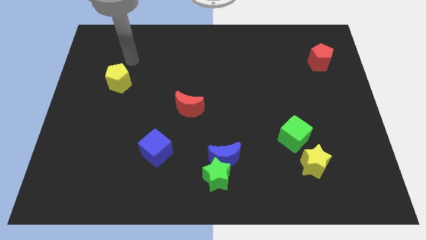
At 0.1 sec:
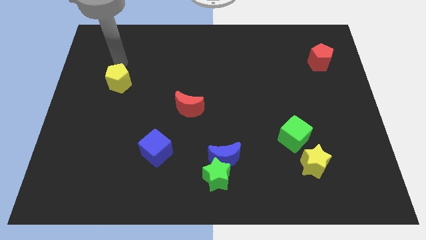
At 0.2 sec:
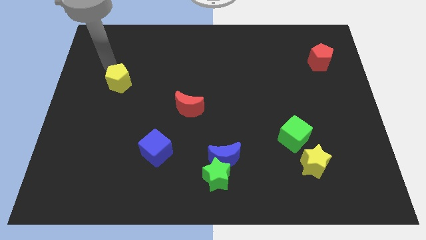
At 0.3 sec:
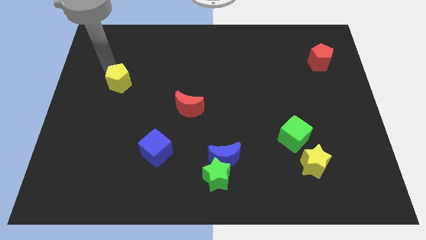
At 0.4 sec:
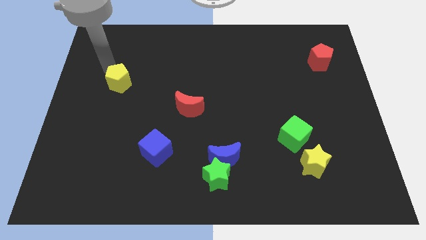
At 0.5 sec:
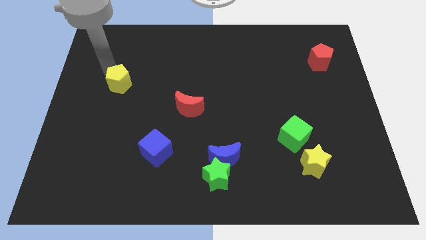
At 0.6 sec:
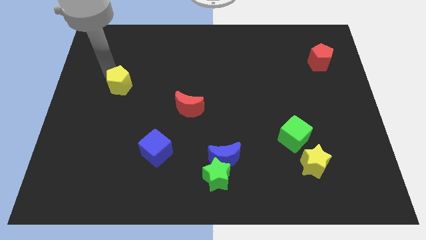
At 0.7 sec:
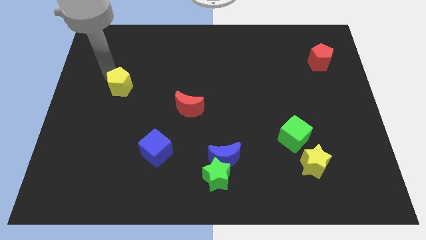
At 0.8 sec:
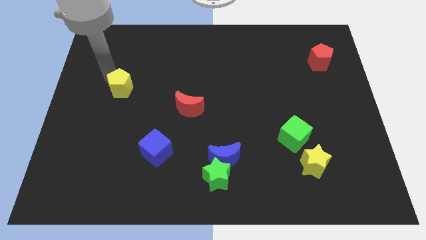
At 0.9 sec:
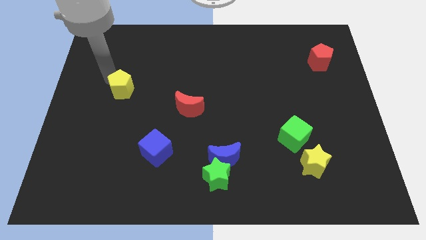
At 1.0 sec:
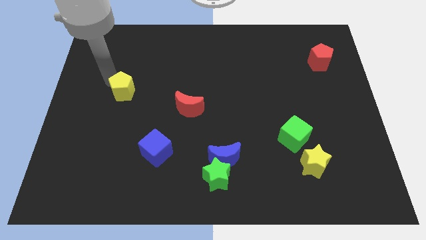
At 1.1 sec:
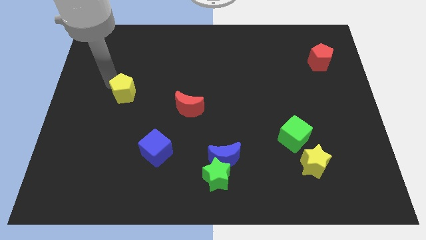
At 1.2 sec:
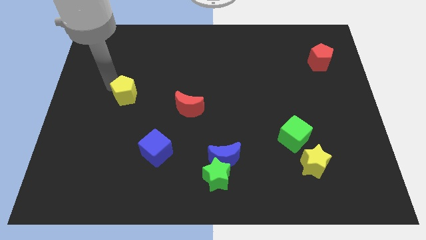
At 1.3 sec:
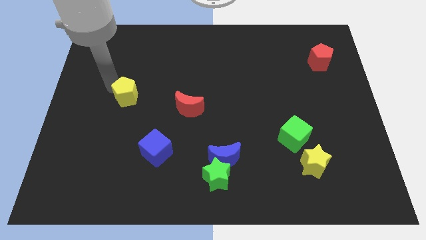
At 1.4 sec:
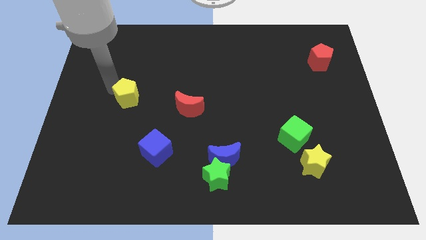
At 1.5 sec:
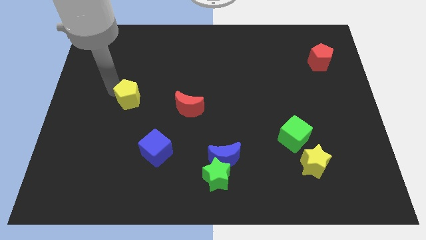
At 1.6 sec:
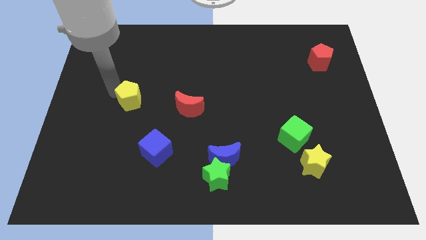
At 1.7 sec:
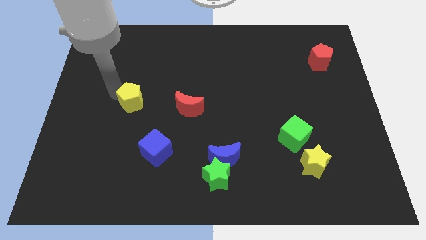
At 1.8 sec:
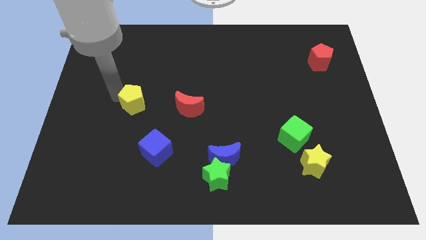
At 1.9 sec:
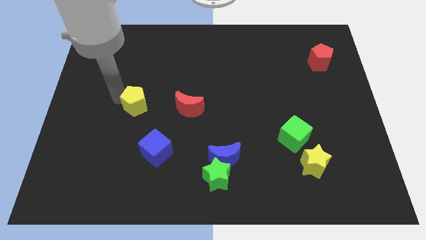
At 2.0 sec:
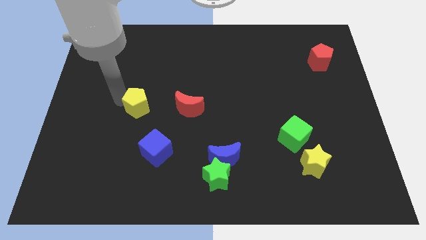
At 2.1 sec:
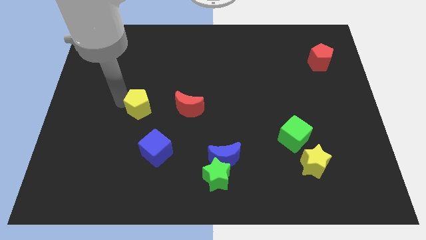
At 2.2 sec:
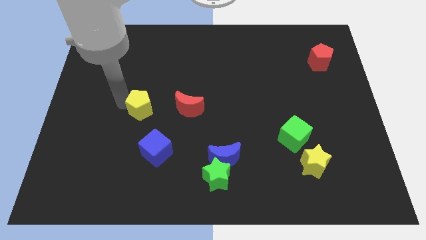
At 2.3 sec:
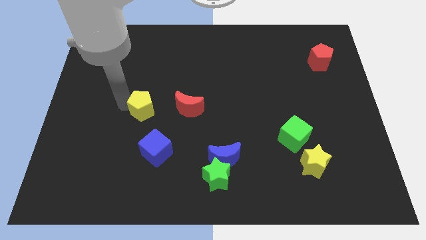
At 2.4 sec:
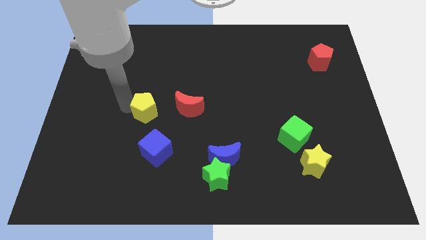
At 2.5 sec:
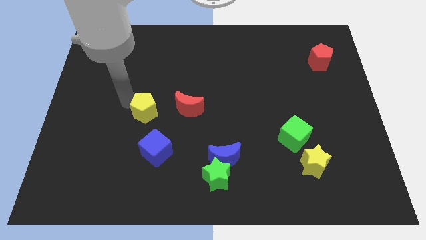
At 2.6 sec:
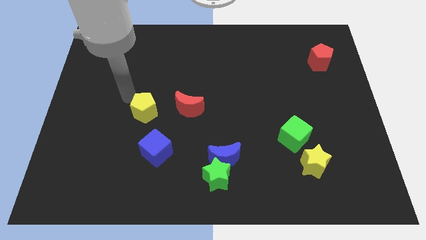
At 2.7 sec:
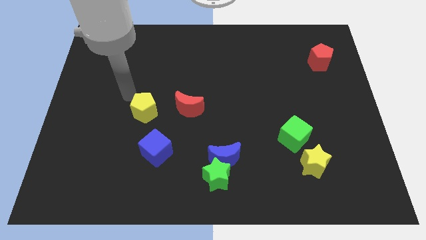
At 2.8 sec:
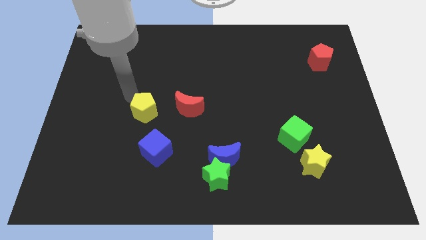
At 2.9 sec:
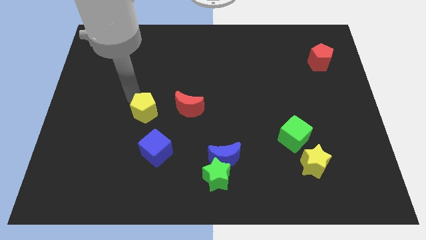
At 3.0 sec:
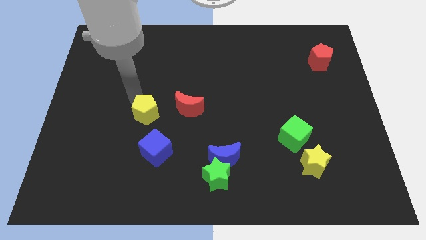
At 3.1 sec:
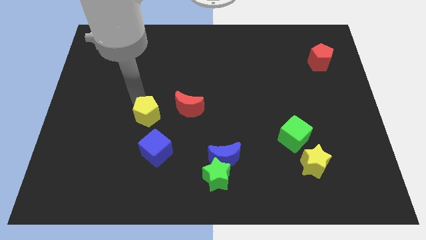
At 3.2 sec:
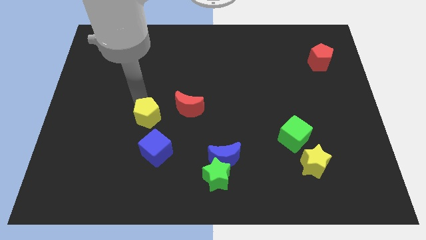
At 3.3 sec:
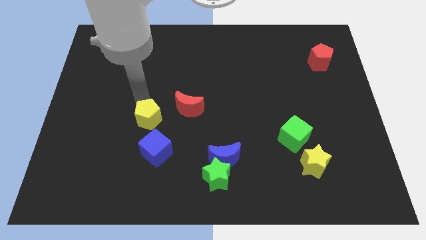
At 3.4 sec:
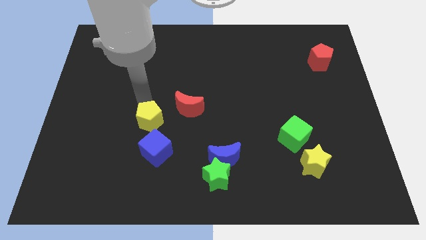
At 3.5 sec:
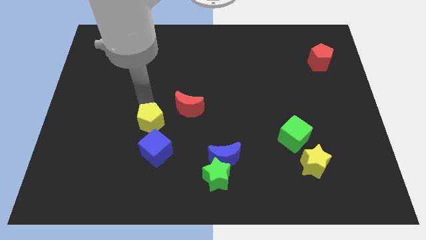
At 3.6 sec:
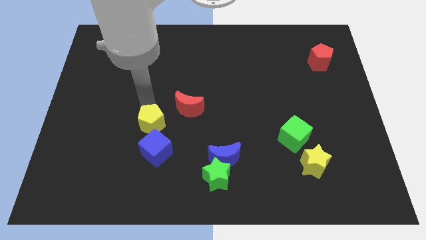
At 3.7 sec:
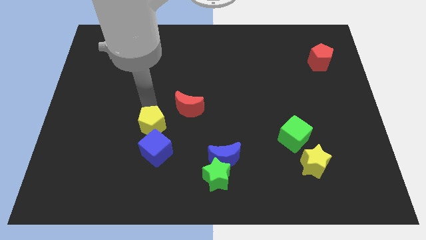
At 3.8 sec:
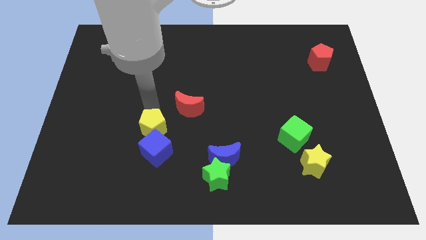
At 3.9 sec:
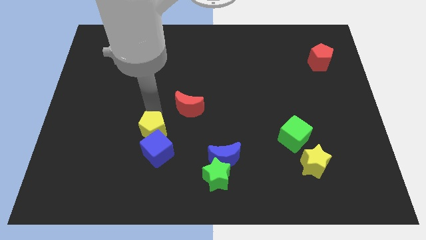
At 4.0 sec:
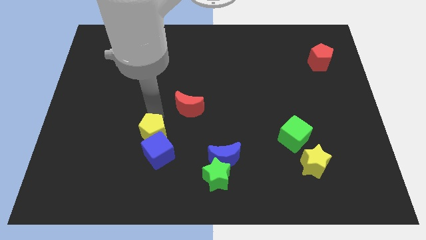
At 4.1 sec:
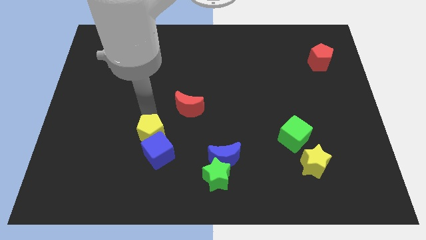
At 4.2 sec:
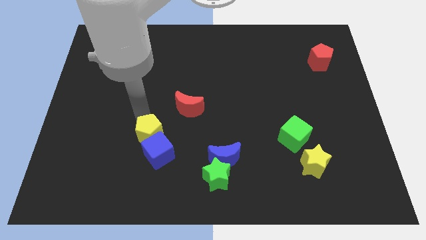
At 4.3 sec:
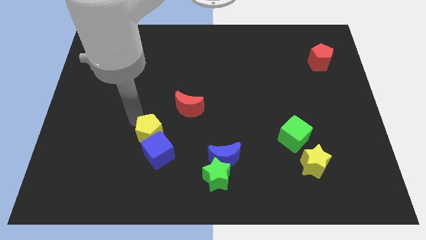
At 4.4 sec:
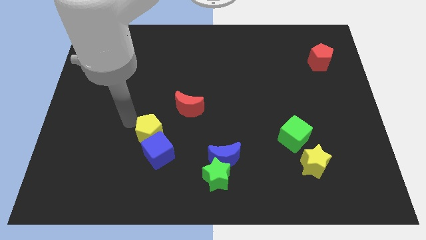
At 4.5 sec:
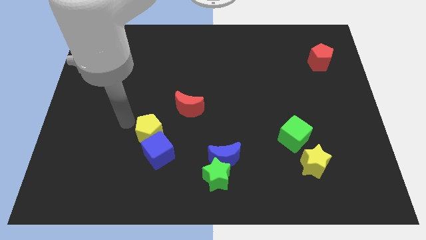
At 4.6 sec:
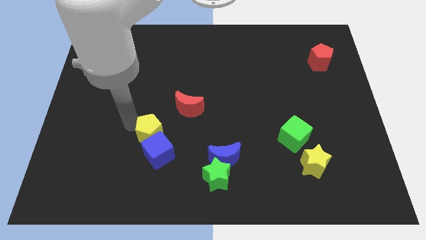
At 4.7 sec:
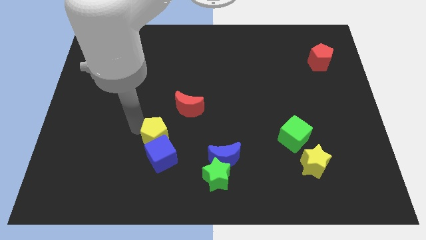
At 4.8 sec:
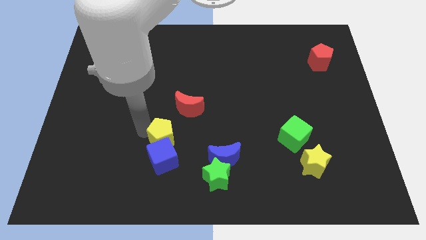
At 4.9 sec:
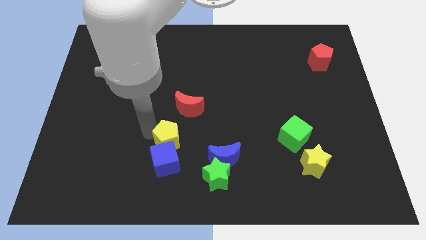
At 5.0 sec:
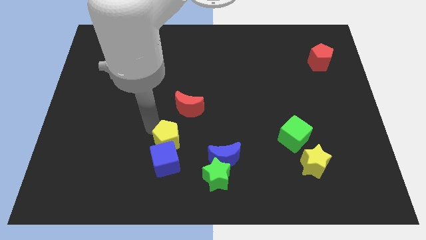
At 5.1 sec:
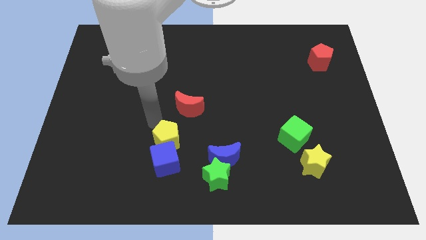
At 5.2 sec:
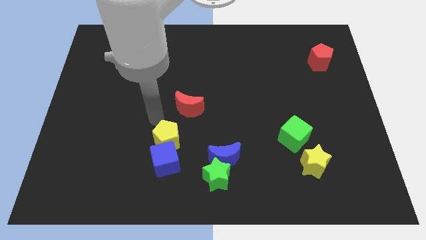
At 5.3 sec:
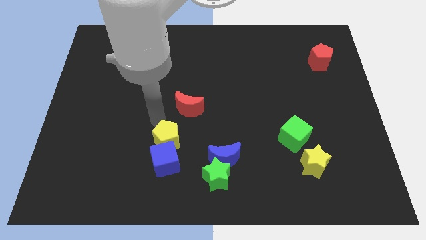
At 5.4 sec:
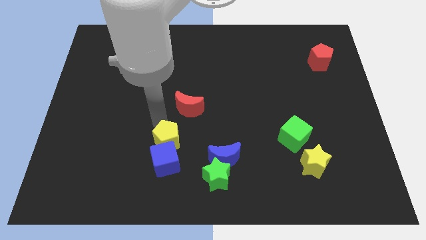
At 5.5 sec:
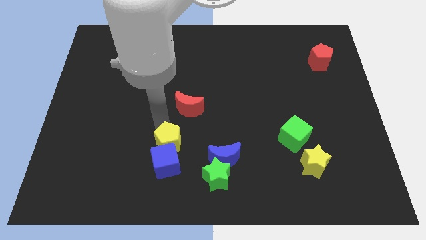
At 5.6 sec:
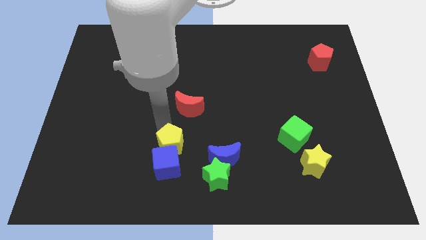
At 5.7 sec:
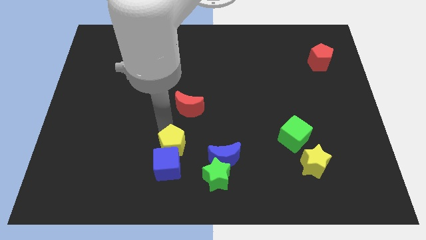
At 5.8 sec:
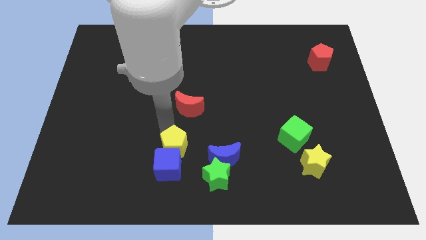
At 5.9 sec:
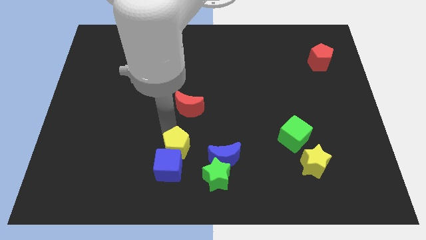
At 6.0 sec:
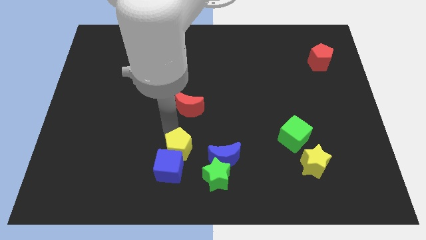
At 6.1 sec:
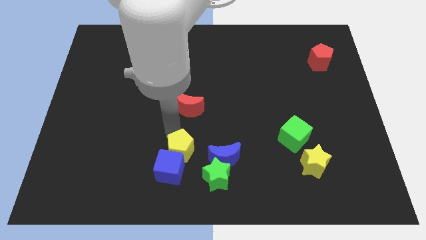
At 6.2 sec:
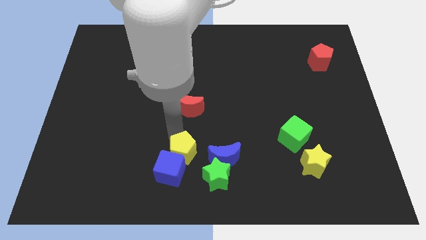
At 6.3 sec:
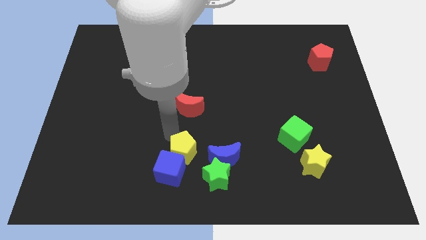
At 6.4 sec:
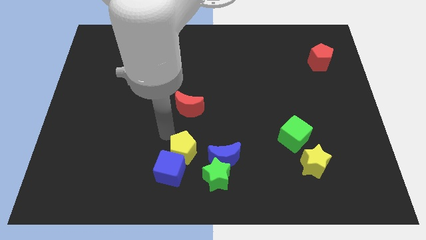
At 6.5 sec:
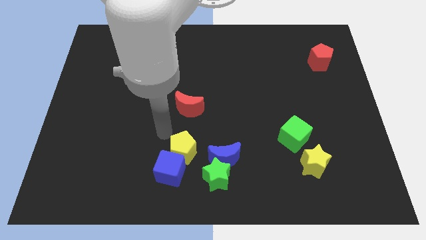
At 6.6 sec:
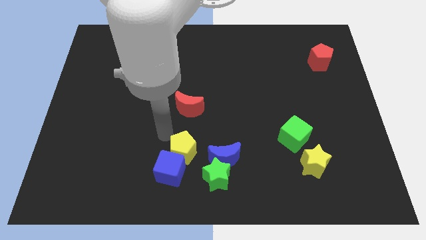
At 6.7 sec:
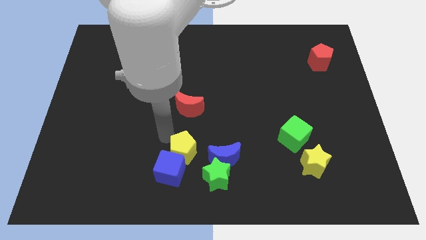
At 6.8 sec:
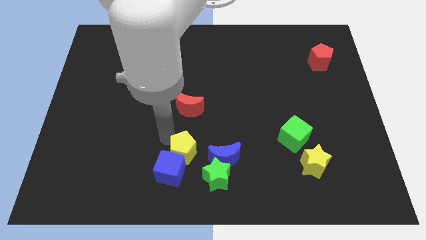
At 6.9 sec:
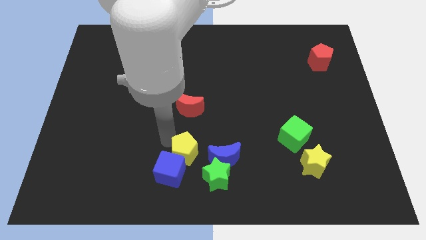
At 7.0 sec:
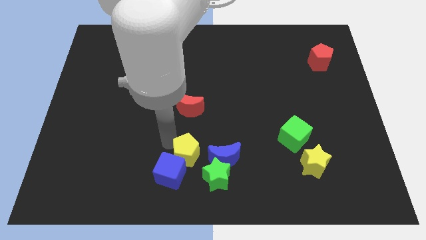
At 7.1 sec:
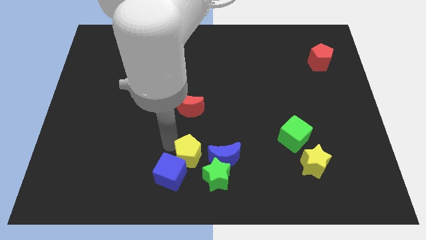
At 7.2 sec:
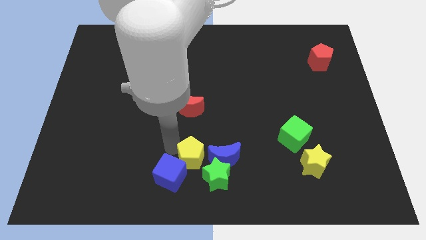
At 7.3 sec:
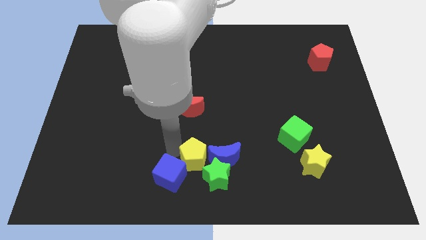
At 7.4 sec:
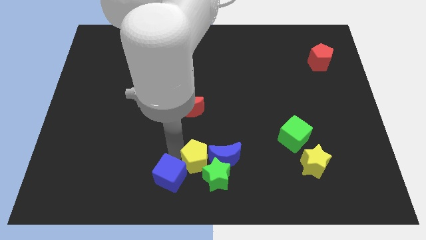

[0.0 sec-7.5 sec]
move the yellow pentagon to the green star
